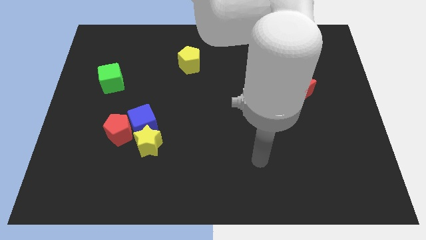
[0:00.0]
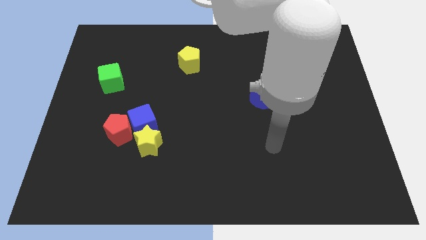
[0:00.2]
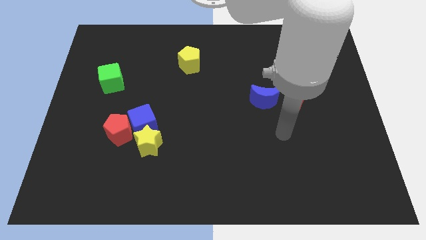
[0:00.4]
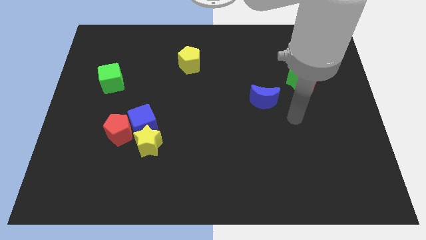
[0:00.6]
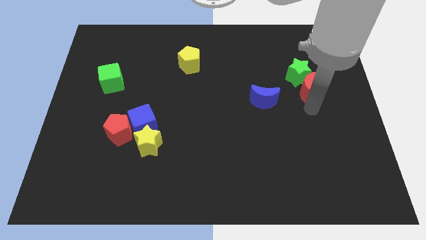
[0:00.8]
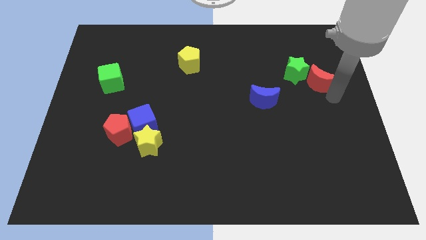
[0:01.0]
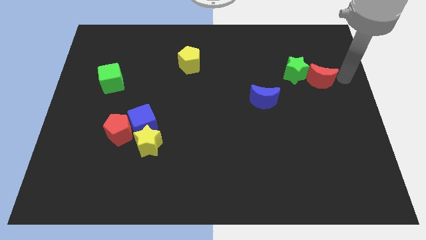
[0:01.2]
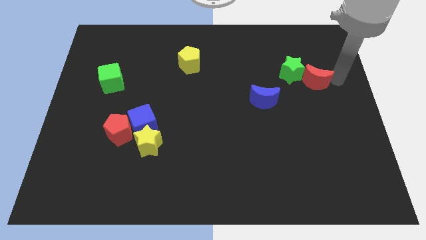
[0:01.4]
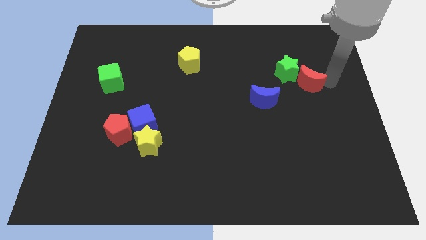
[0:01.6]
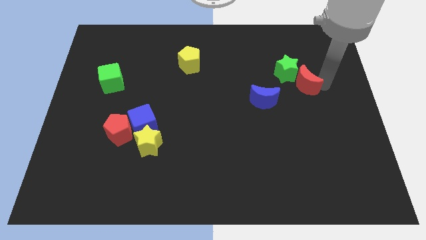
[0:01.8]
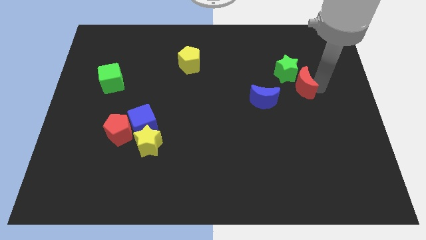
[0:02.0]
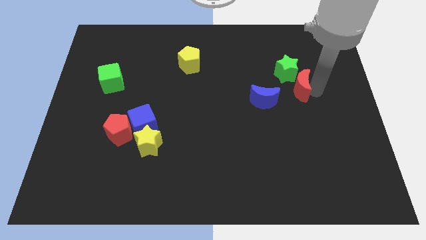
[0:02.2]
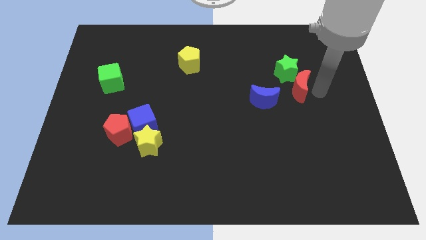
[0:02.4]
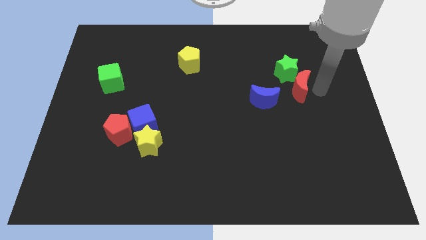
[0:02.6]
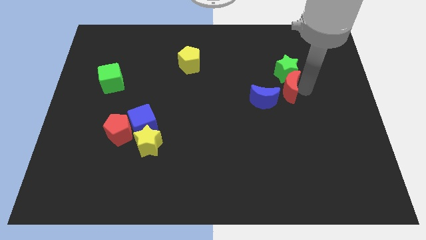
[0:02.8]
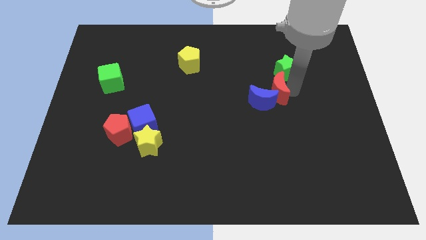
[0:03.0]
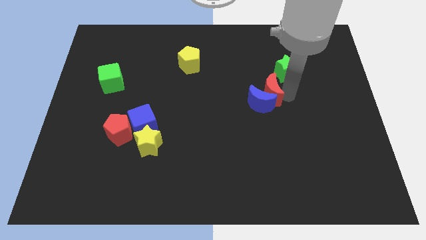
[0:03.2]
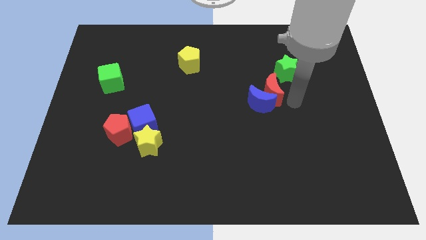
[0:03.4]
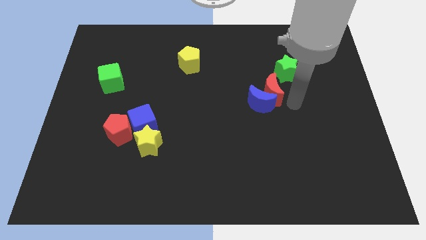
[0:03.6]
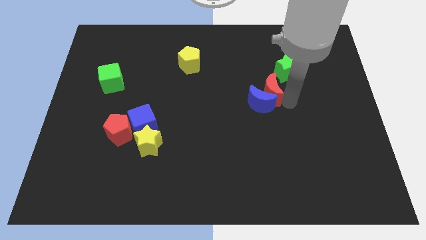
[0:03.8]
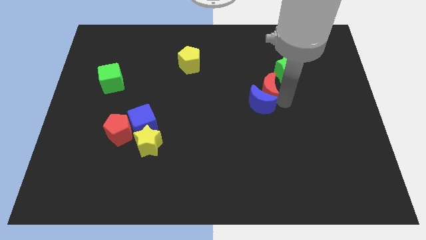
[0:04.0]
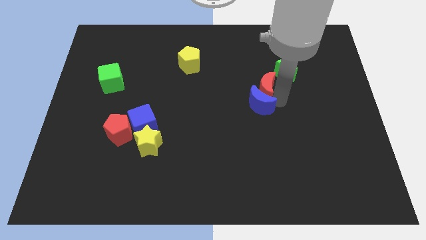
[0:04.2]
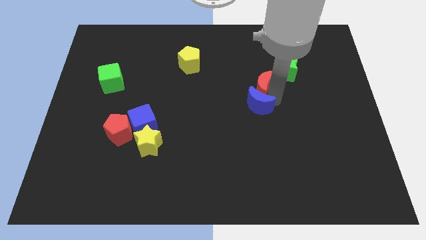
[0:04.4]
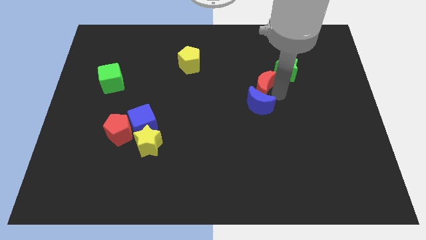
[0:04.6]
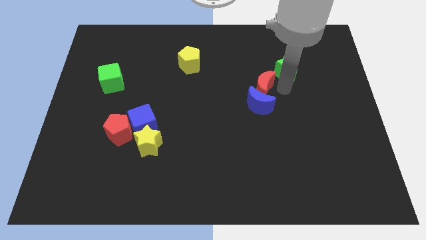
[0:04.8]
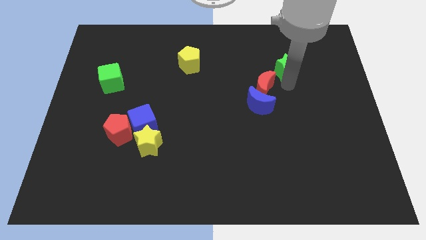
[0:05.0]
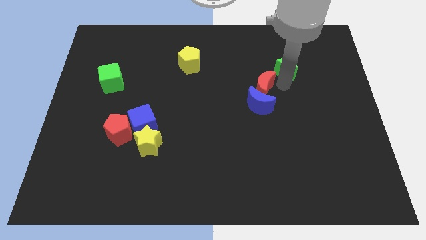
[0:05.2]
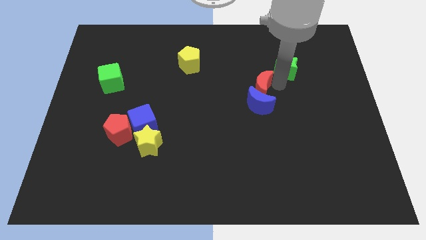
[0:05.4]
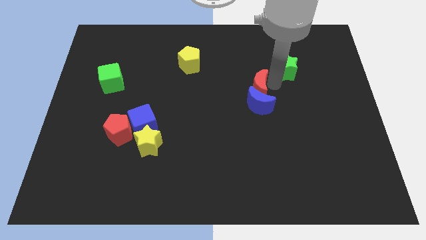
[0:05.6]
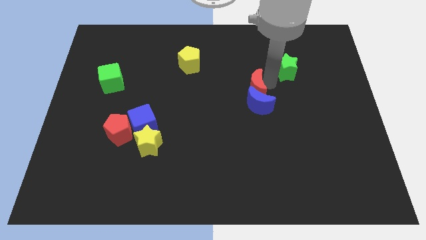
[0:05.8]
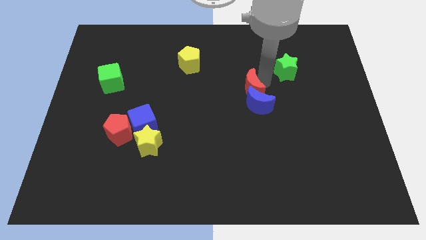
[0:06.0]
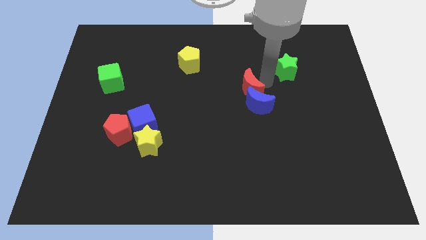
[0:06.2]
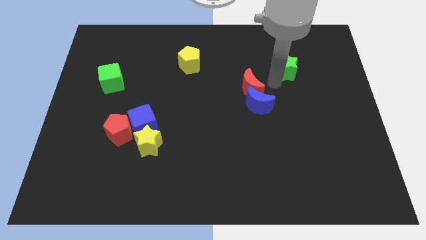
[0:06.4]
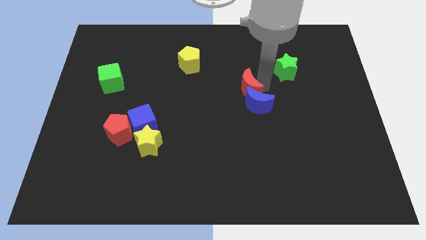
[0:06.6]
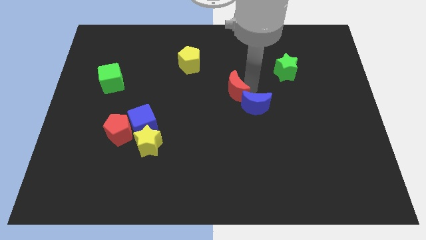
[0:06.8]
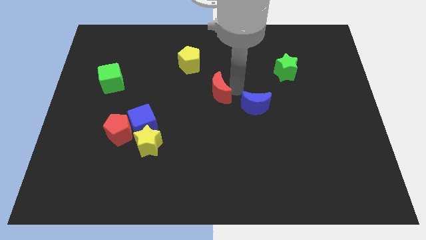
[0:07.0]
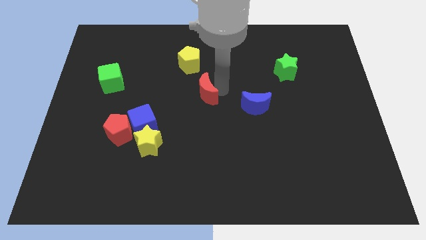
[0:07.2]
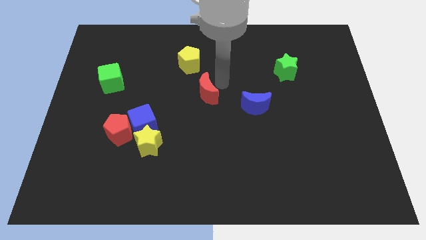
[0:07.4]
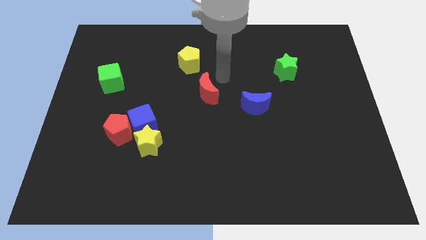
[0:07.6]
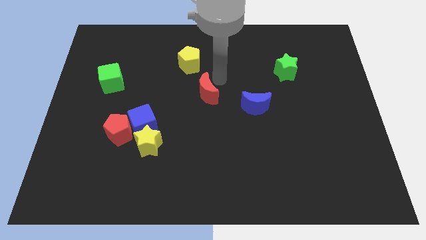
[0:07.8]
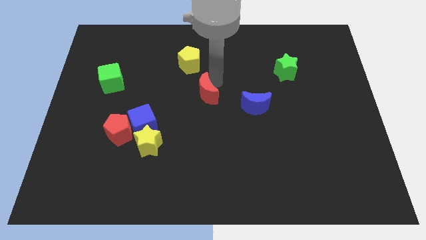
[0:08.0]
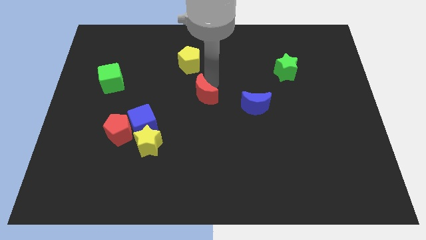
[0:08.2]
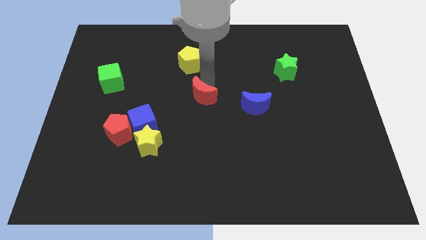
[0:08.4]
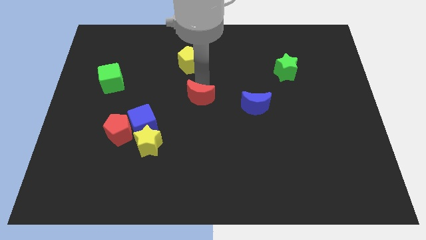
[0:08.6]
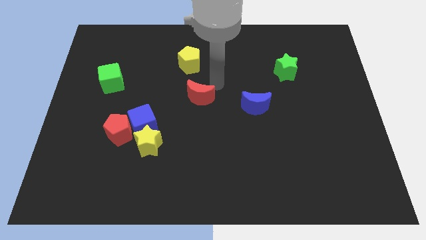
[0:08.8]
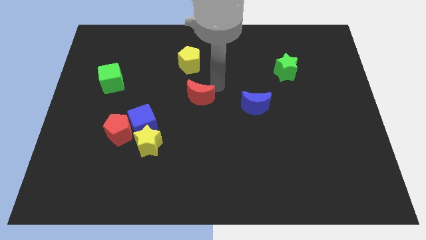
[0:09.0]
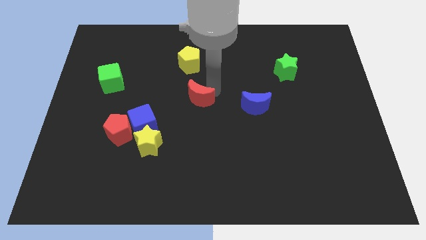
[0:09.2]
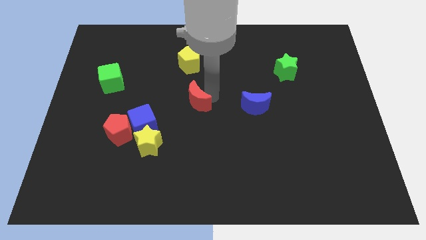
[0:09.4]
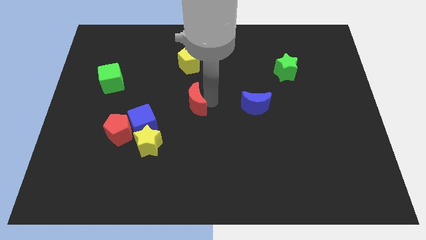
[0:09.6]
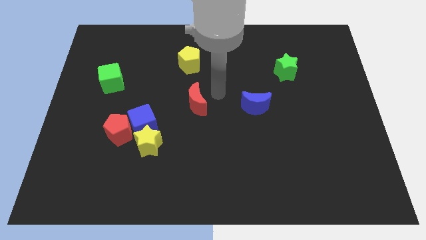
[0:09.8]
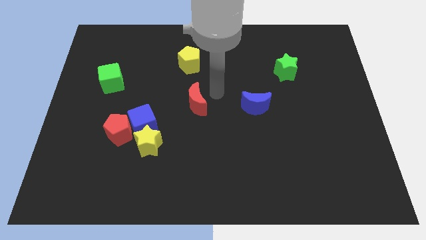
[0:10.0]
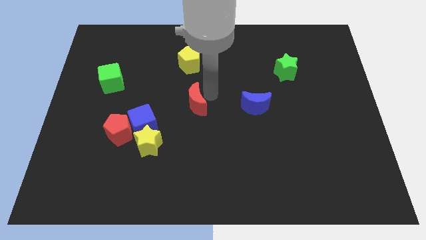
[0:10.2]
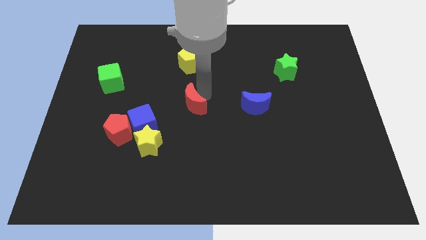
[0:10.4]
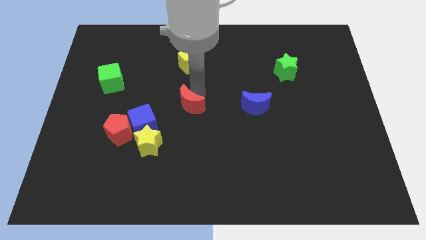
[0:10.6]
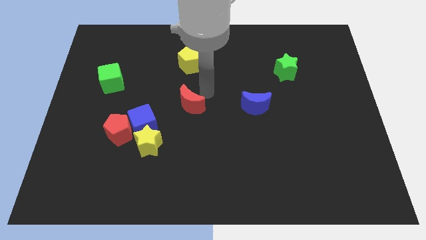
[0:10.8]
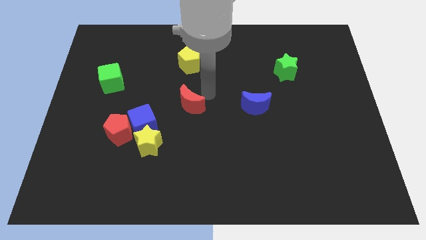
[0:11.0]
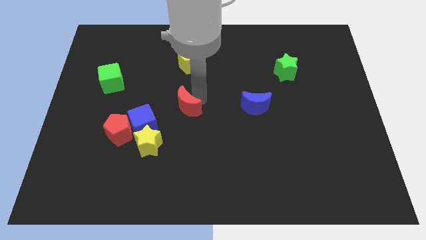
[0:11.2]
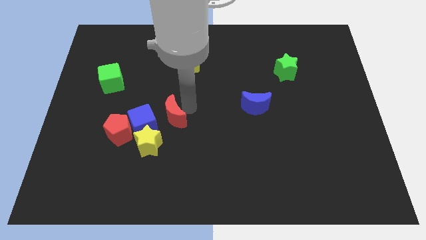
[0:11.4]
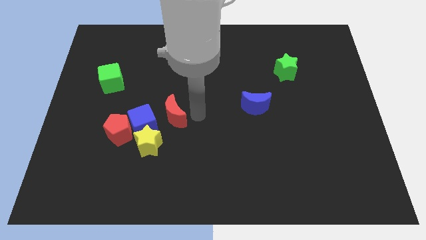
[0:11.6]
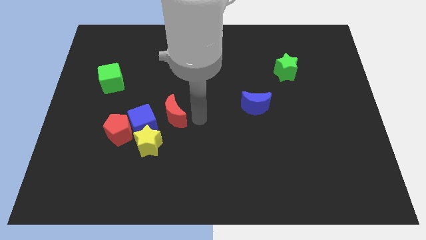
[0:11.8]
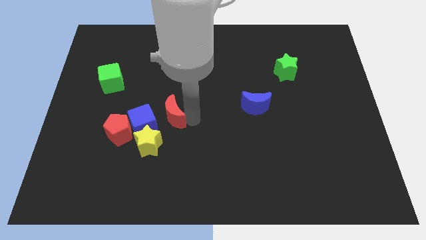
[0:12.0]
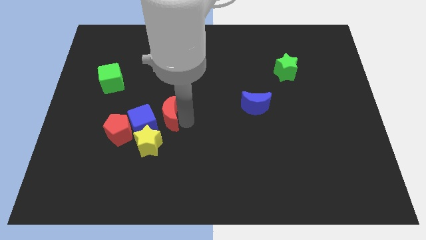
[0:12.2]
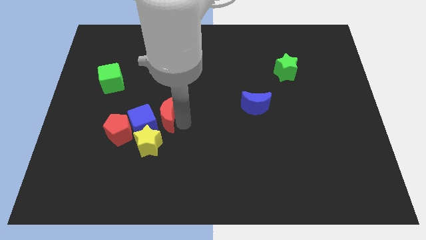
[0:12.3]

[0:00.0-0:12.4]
put the red moon to the top right of the red pentagon

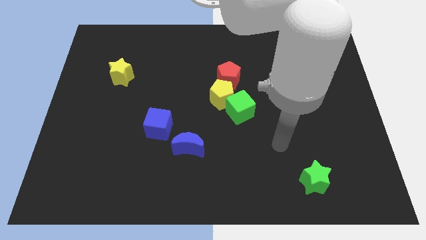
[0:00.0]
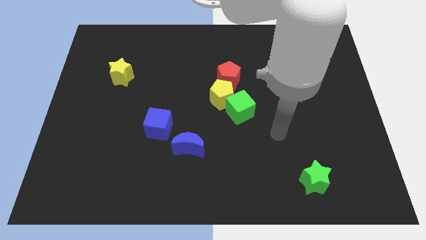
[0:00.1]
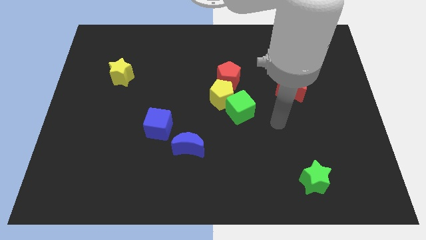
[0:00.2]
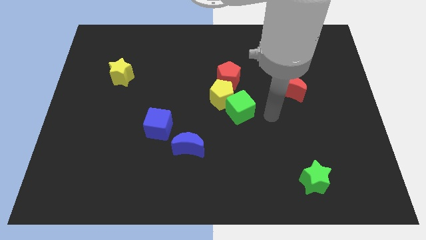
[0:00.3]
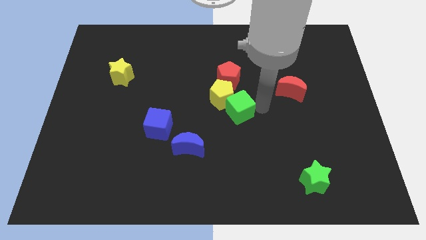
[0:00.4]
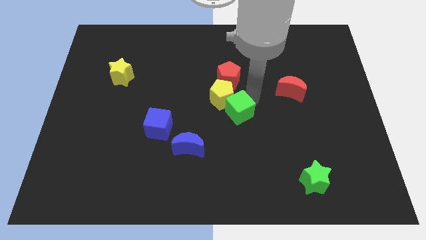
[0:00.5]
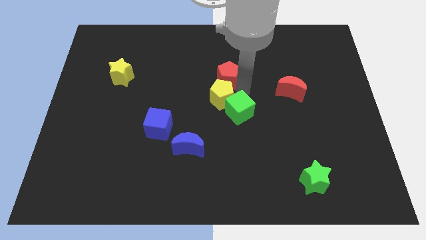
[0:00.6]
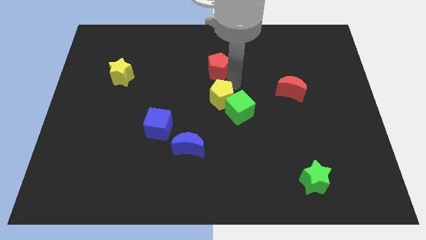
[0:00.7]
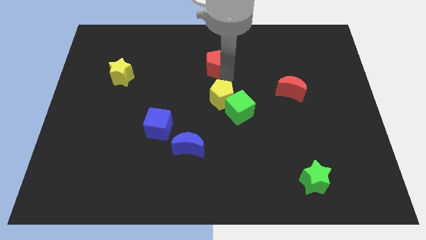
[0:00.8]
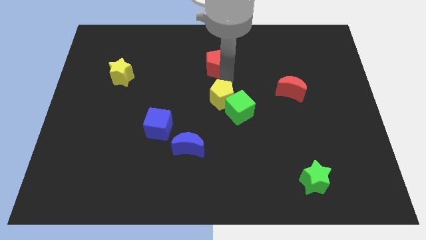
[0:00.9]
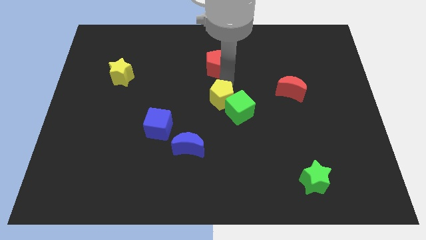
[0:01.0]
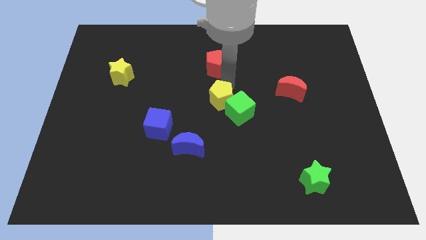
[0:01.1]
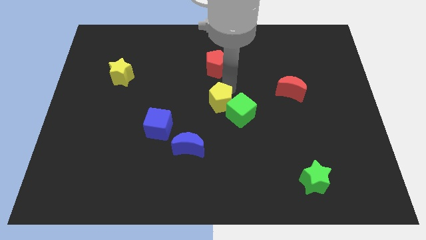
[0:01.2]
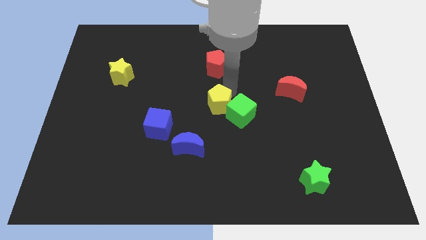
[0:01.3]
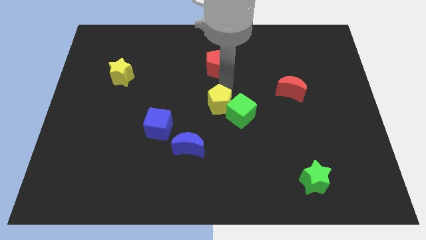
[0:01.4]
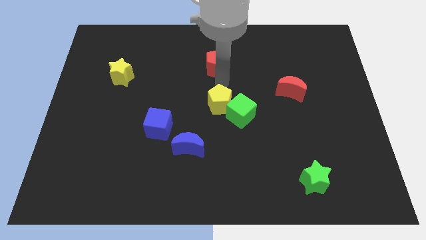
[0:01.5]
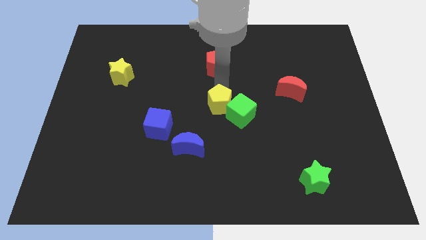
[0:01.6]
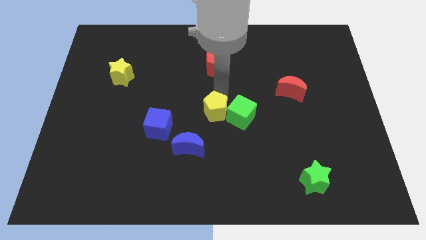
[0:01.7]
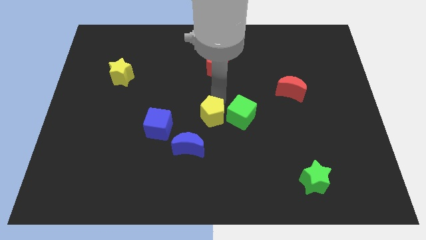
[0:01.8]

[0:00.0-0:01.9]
put the yellow pentagon to the bottom left of the green cube
